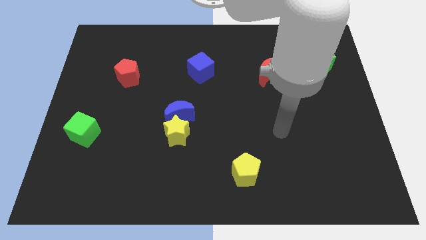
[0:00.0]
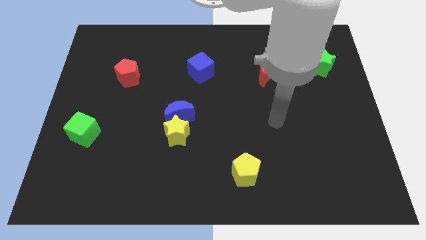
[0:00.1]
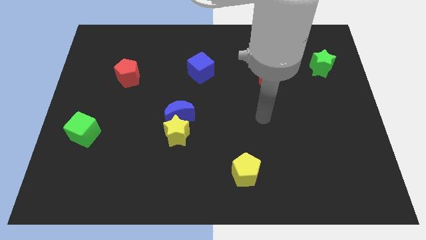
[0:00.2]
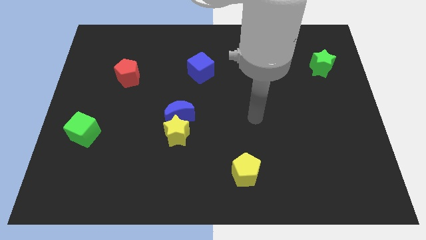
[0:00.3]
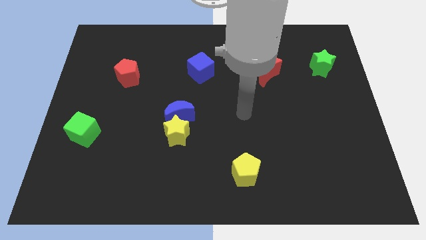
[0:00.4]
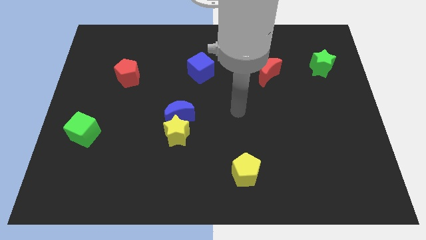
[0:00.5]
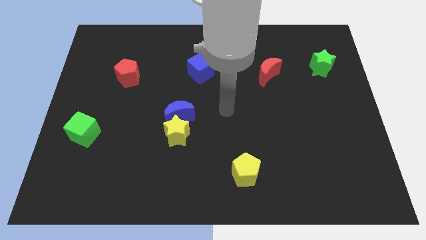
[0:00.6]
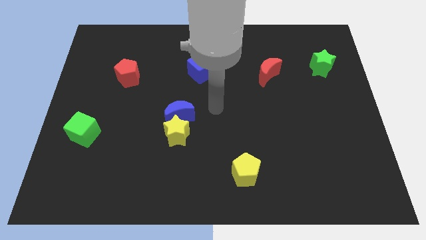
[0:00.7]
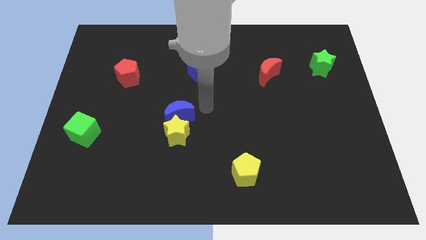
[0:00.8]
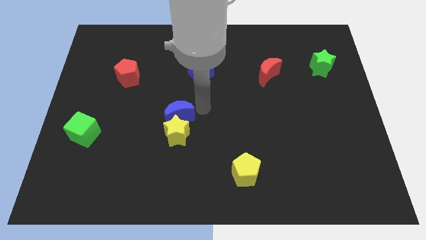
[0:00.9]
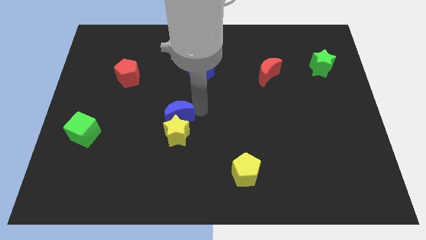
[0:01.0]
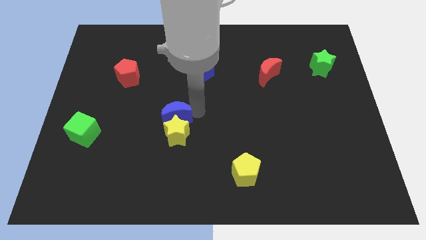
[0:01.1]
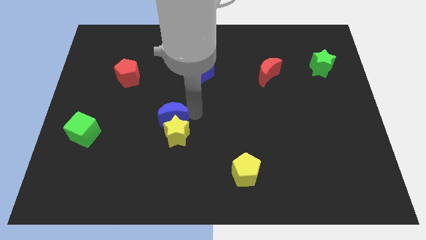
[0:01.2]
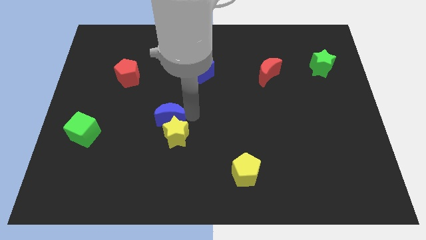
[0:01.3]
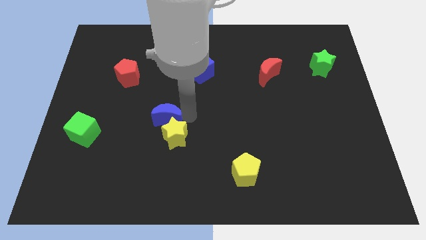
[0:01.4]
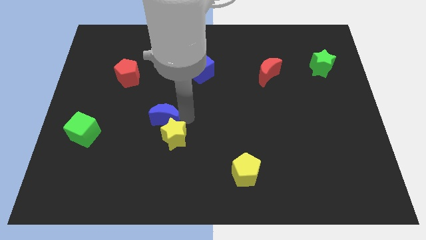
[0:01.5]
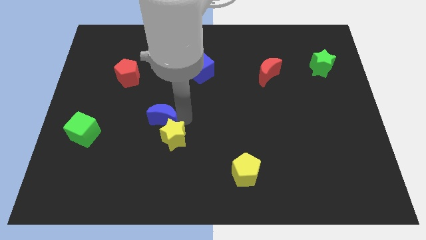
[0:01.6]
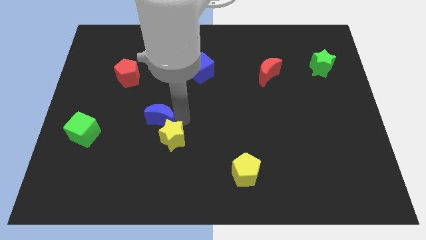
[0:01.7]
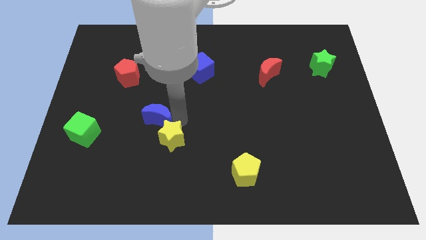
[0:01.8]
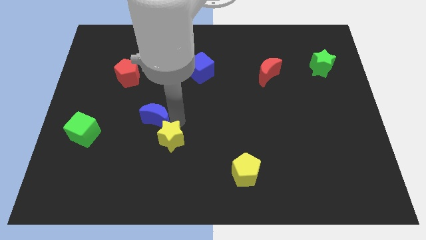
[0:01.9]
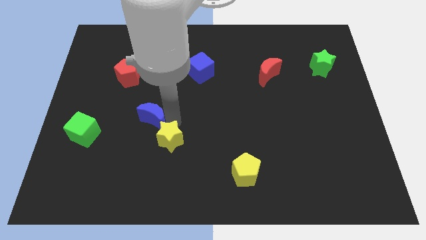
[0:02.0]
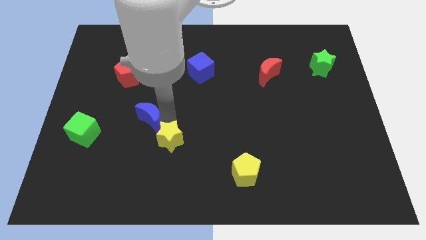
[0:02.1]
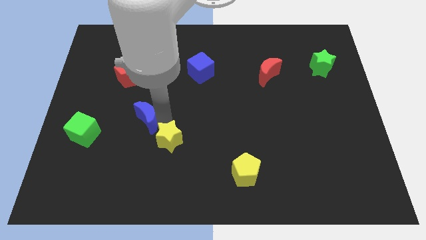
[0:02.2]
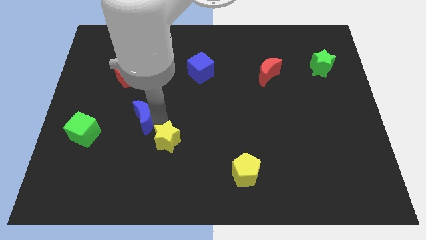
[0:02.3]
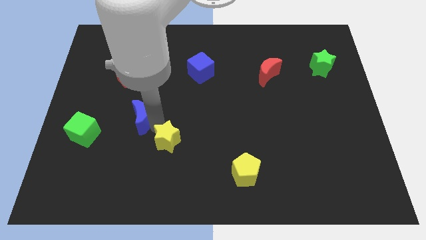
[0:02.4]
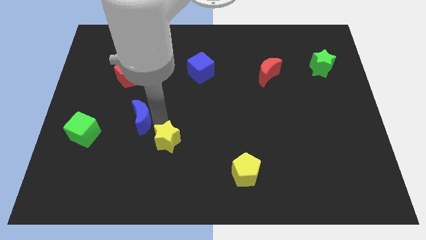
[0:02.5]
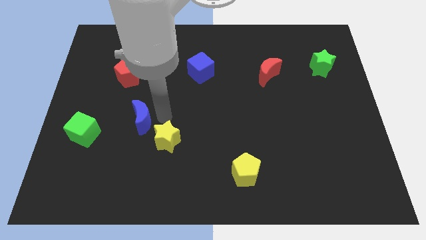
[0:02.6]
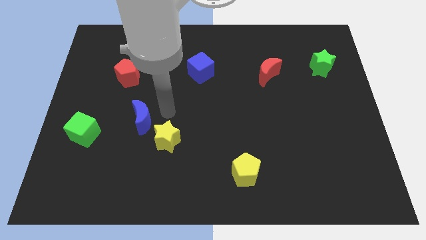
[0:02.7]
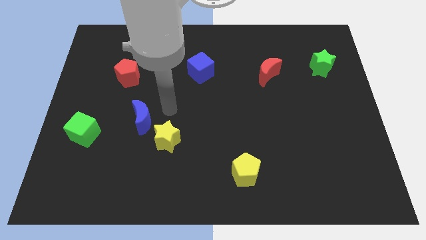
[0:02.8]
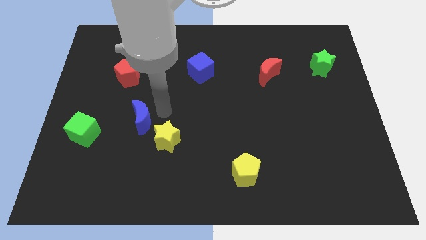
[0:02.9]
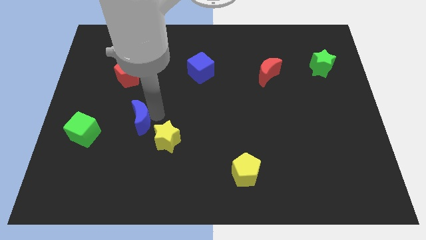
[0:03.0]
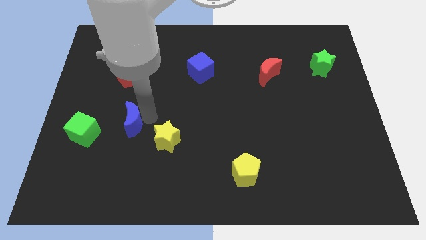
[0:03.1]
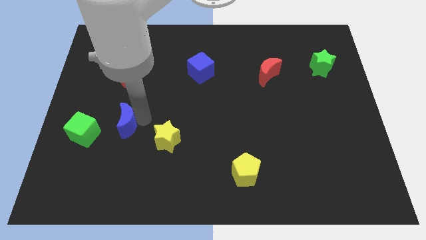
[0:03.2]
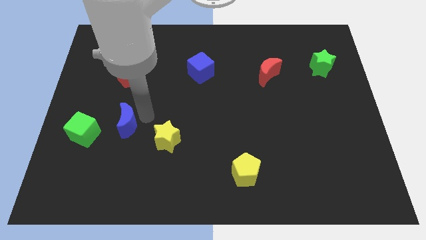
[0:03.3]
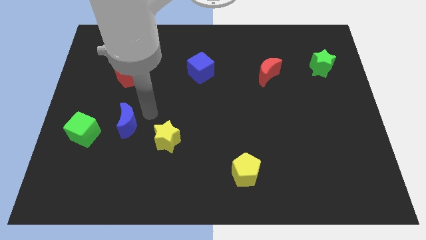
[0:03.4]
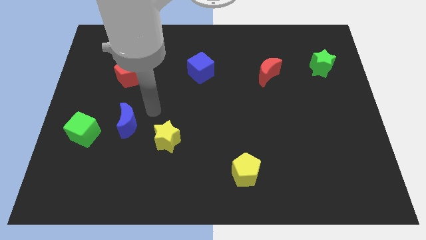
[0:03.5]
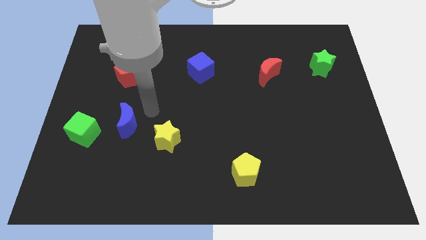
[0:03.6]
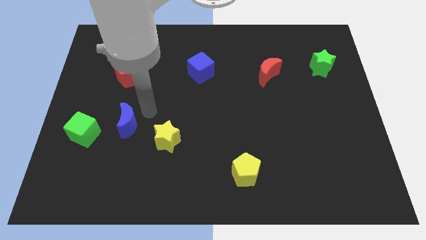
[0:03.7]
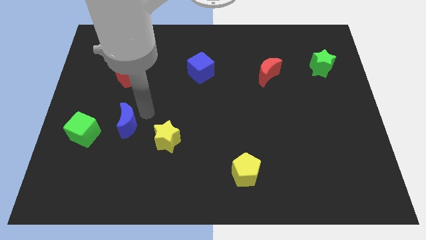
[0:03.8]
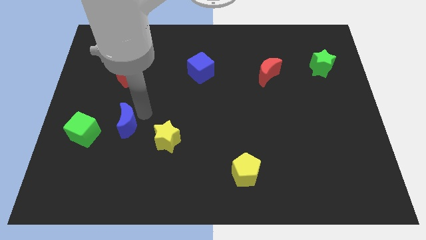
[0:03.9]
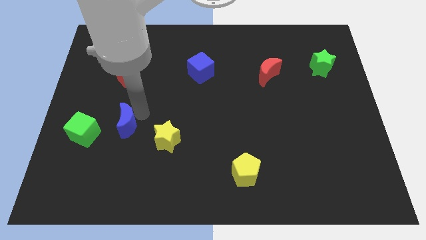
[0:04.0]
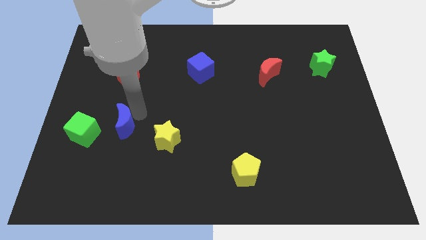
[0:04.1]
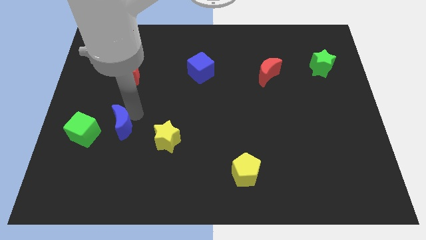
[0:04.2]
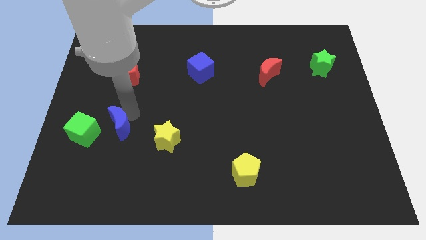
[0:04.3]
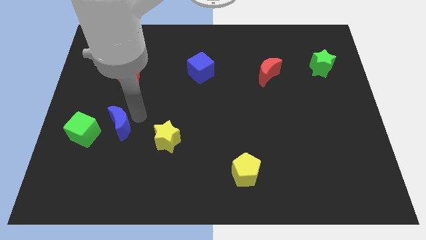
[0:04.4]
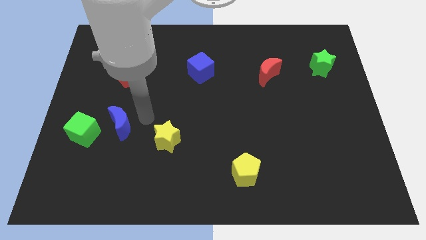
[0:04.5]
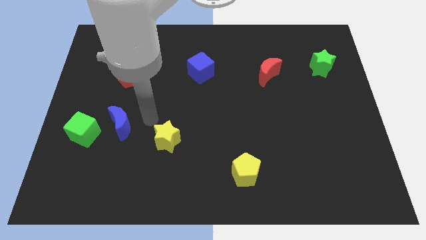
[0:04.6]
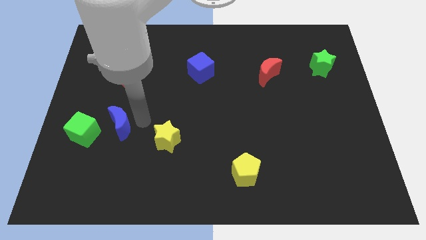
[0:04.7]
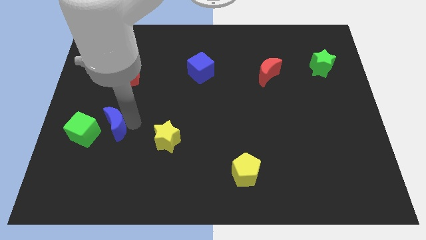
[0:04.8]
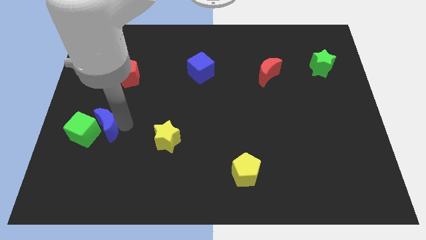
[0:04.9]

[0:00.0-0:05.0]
slide the blue moon next to the green cube
